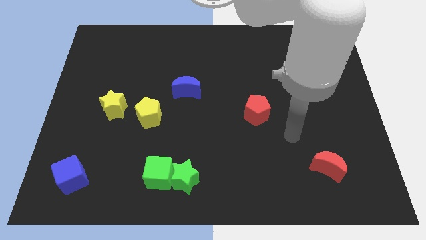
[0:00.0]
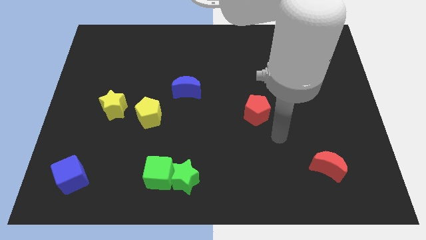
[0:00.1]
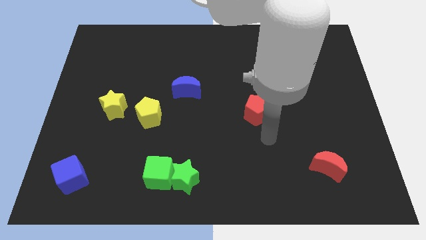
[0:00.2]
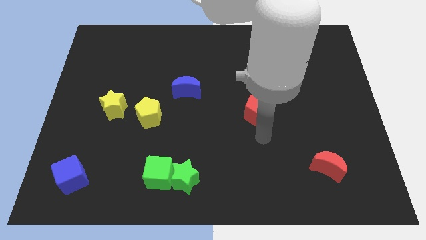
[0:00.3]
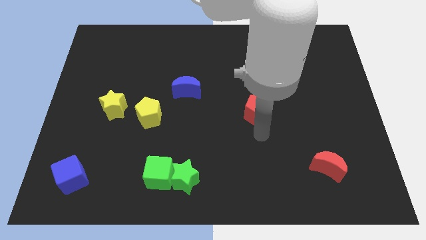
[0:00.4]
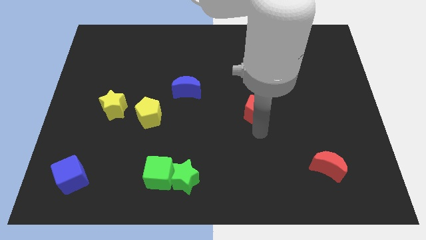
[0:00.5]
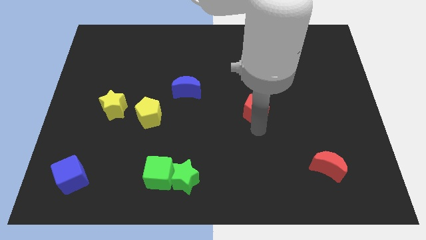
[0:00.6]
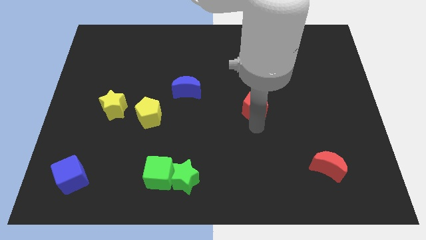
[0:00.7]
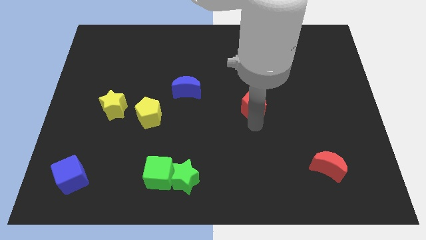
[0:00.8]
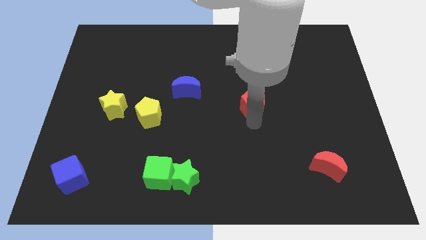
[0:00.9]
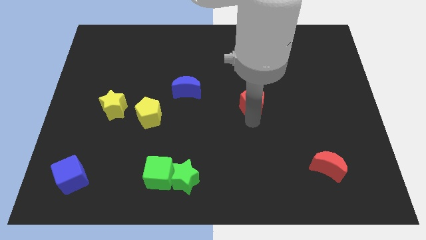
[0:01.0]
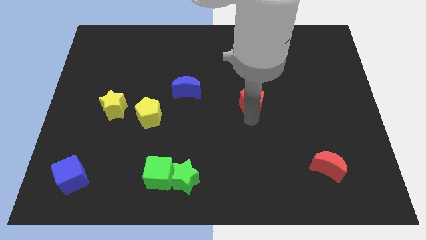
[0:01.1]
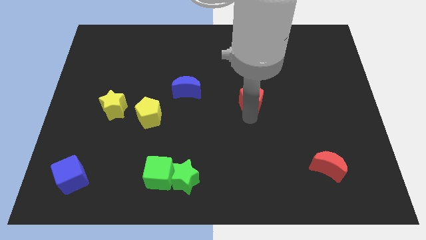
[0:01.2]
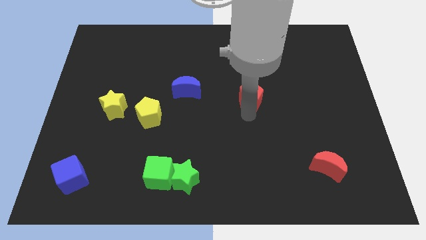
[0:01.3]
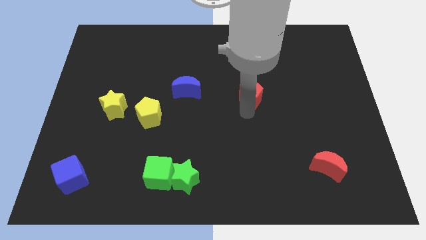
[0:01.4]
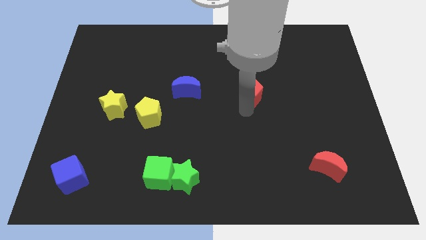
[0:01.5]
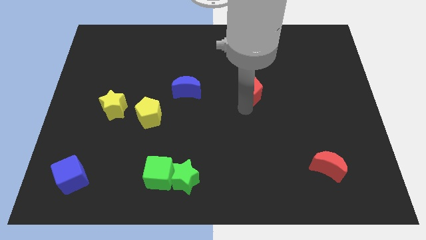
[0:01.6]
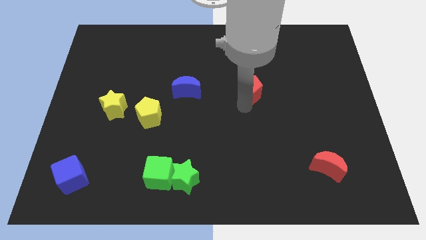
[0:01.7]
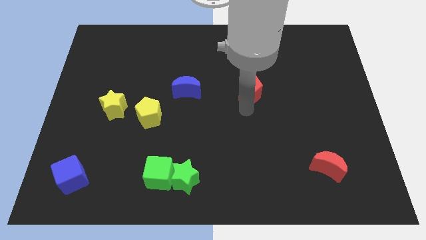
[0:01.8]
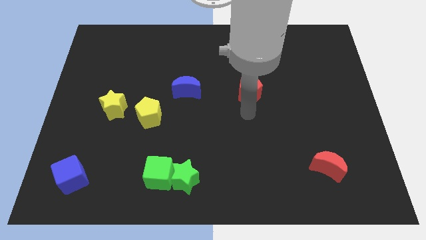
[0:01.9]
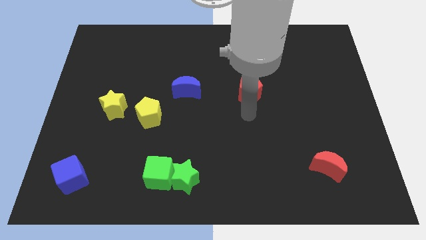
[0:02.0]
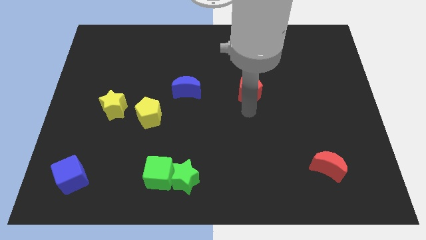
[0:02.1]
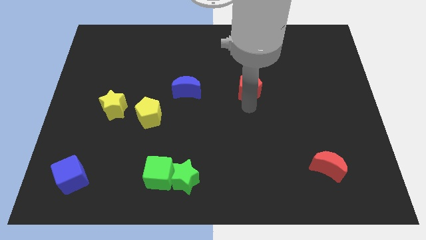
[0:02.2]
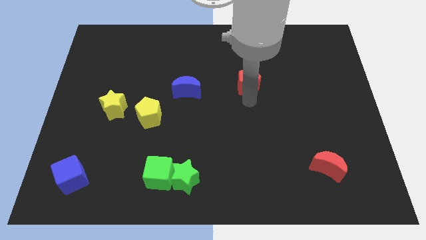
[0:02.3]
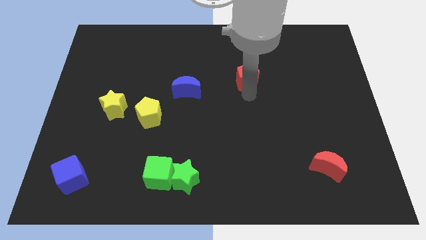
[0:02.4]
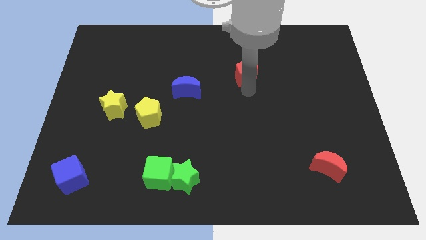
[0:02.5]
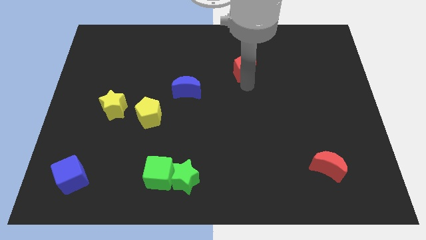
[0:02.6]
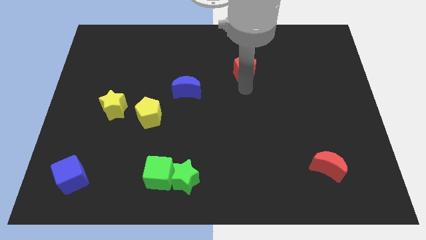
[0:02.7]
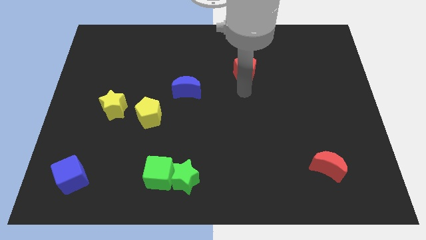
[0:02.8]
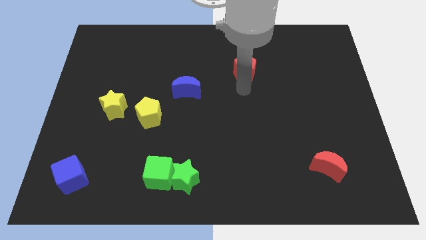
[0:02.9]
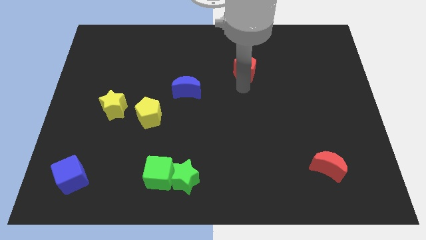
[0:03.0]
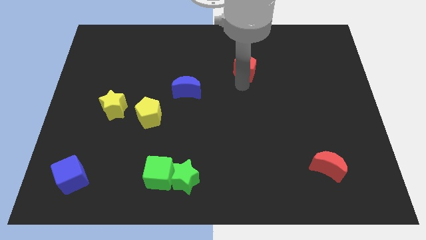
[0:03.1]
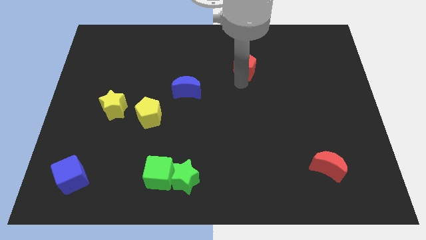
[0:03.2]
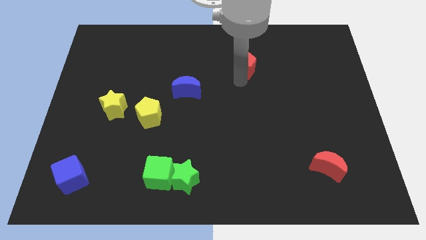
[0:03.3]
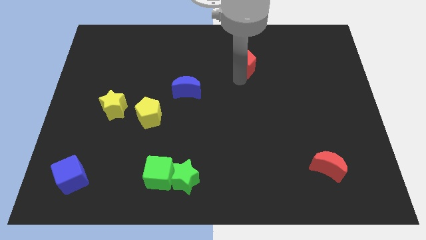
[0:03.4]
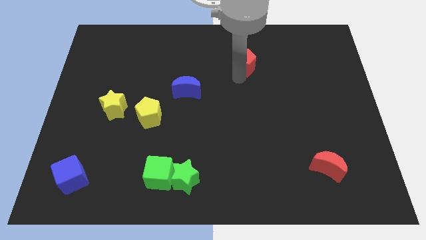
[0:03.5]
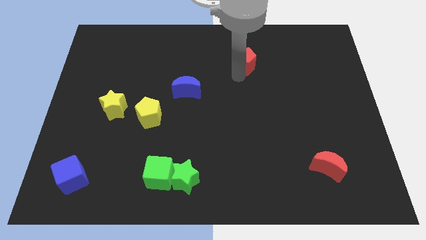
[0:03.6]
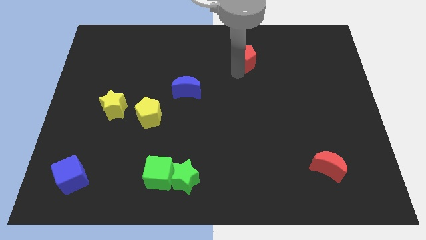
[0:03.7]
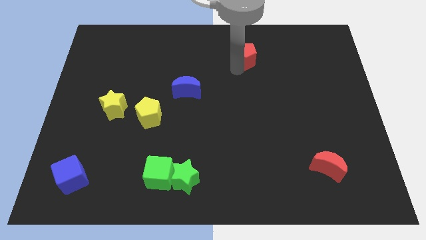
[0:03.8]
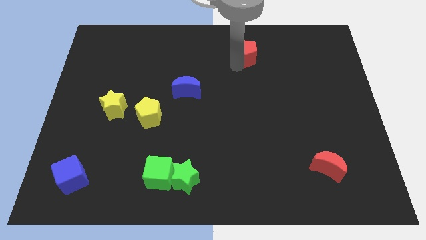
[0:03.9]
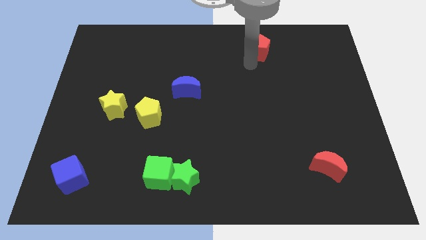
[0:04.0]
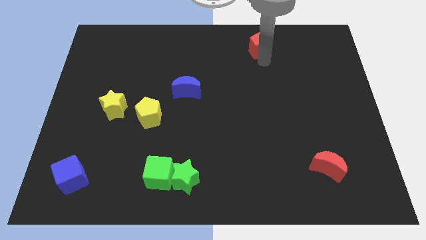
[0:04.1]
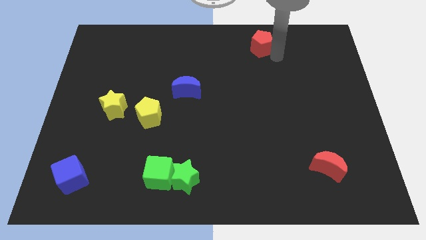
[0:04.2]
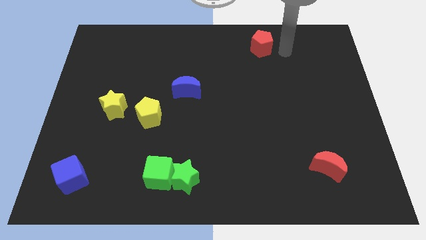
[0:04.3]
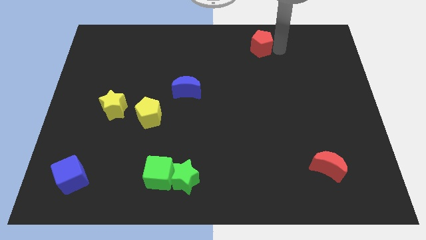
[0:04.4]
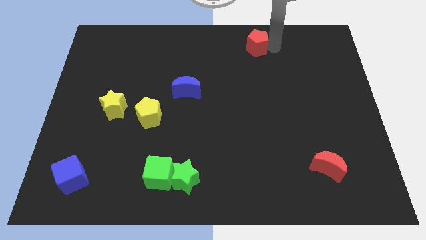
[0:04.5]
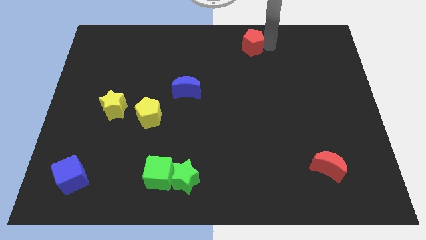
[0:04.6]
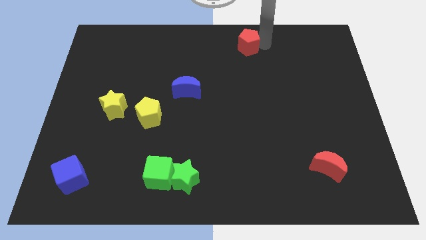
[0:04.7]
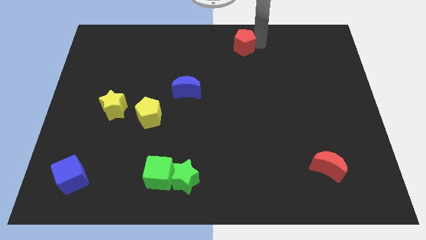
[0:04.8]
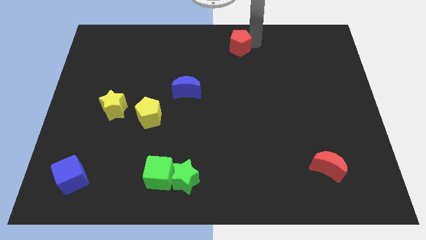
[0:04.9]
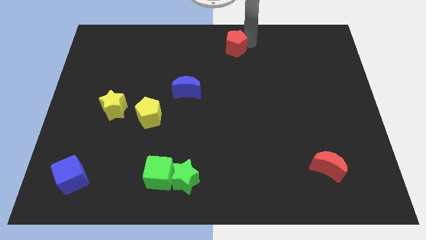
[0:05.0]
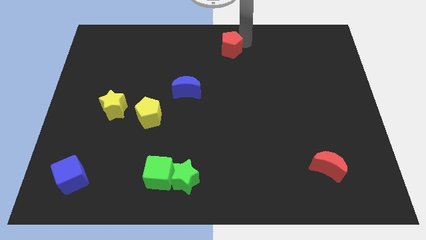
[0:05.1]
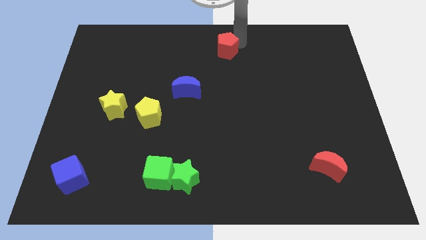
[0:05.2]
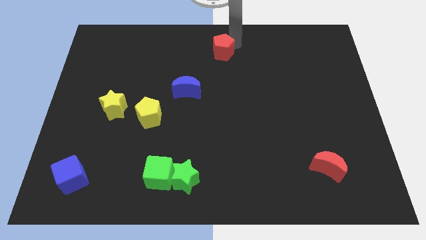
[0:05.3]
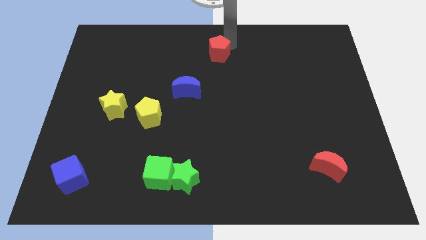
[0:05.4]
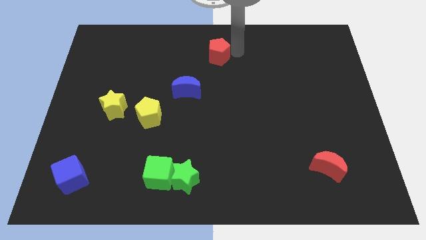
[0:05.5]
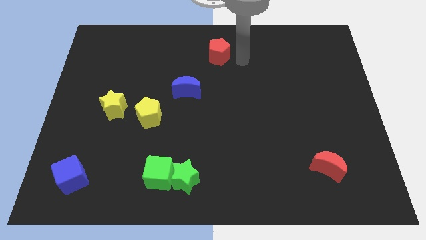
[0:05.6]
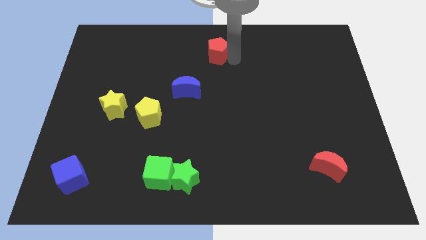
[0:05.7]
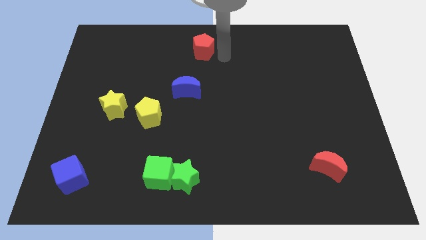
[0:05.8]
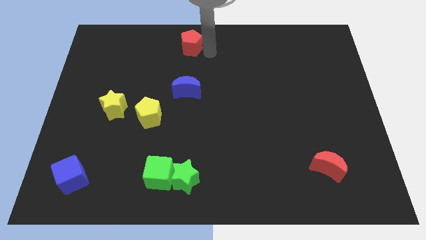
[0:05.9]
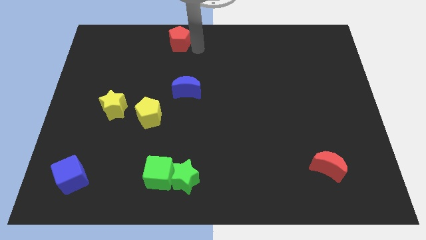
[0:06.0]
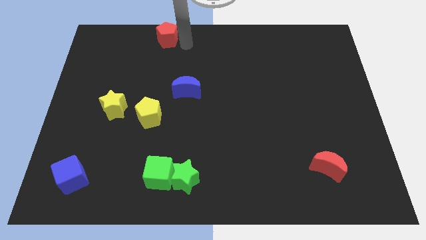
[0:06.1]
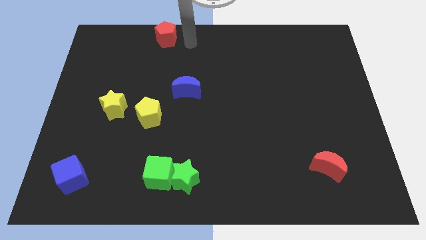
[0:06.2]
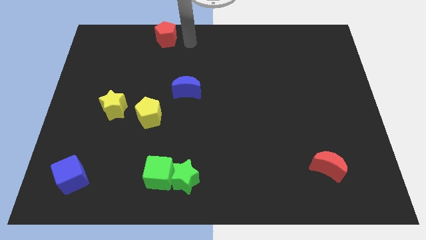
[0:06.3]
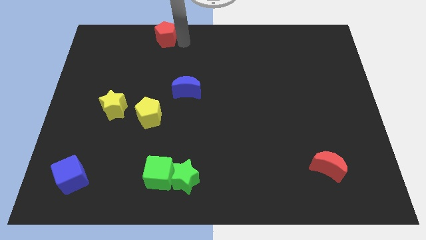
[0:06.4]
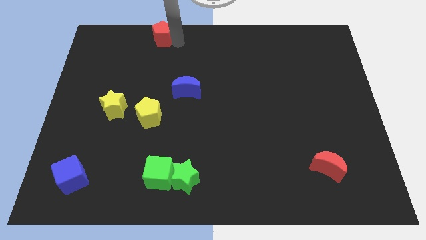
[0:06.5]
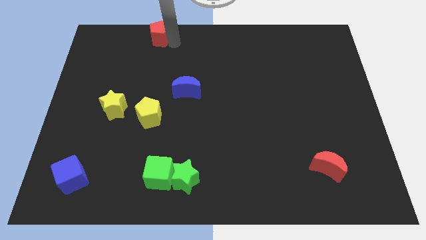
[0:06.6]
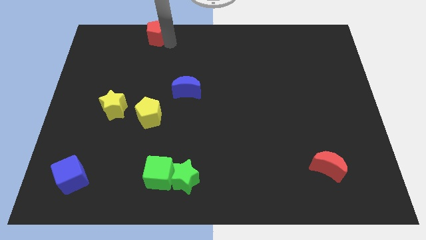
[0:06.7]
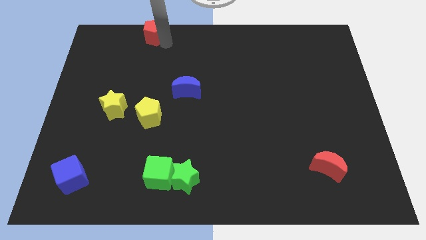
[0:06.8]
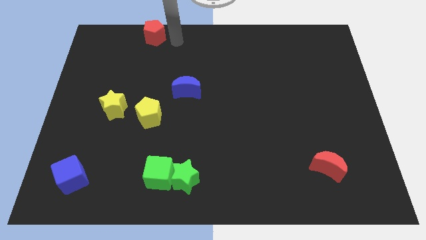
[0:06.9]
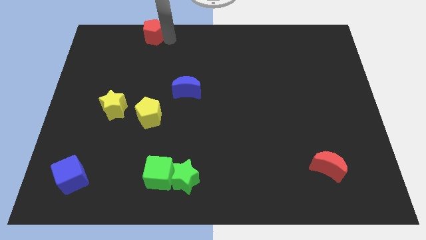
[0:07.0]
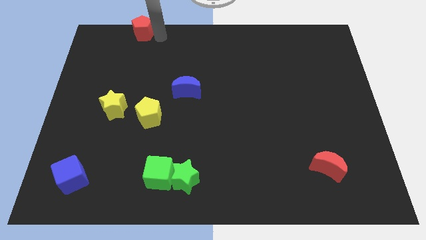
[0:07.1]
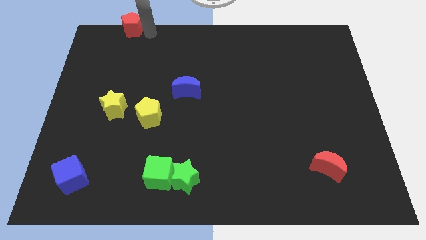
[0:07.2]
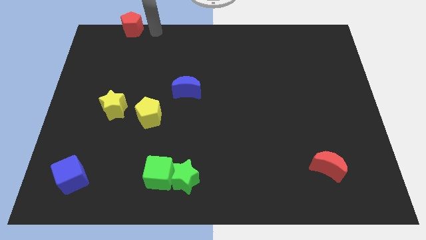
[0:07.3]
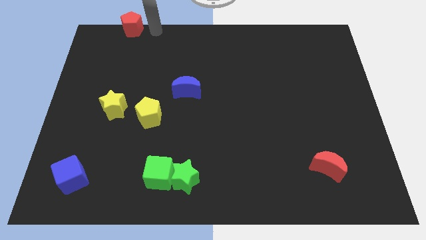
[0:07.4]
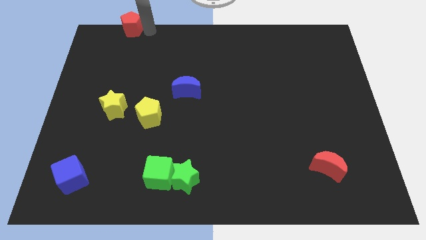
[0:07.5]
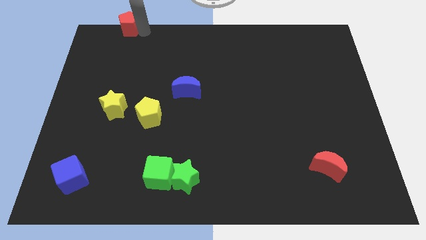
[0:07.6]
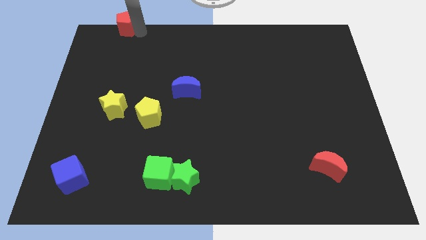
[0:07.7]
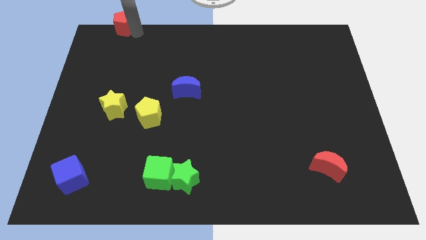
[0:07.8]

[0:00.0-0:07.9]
move the red pentagon to the top left of the board
